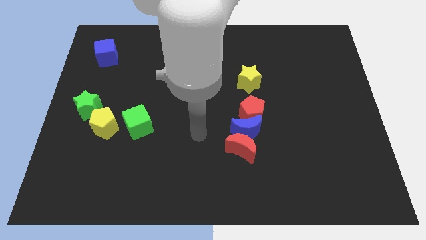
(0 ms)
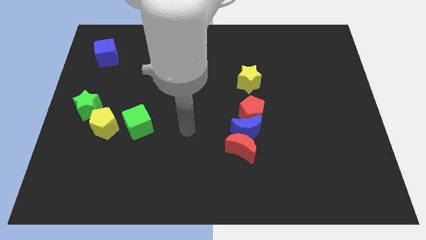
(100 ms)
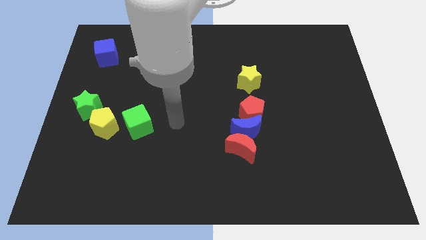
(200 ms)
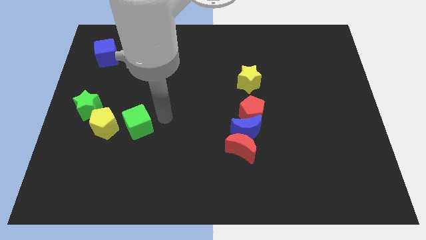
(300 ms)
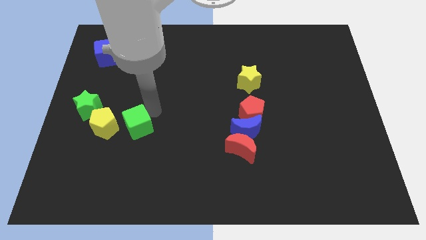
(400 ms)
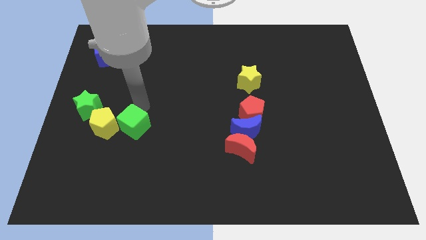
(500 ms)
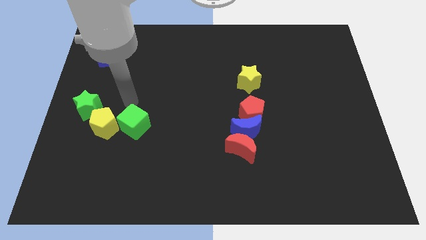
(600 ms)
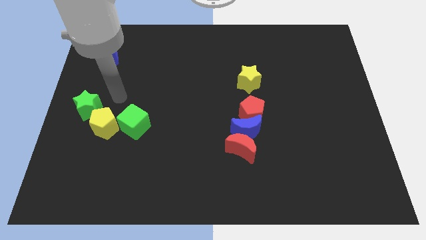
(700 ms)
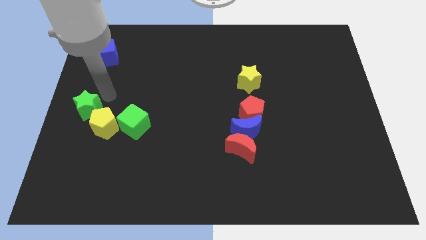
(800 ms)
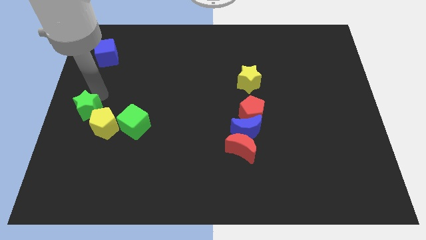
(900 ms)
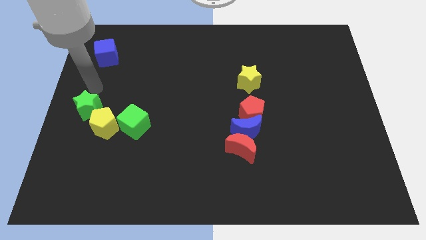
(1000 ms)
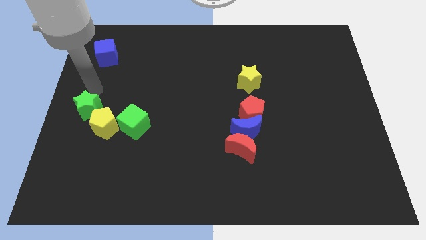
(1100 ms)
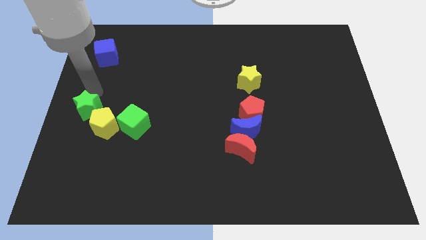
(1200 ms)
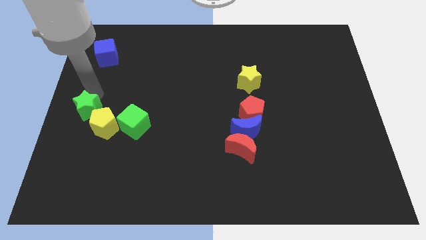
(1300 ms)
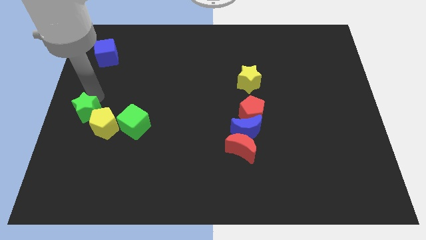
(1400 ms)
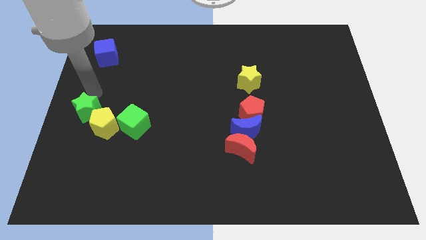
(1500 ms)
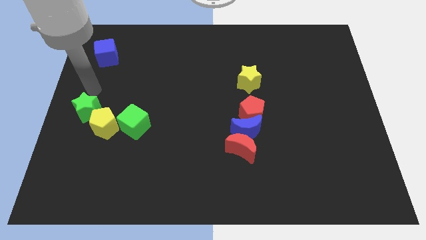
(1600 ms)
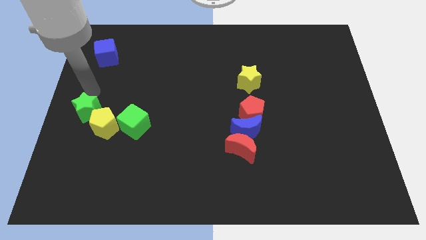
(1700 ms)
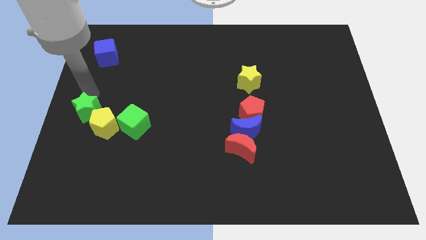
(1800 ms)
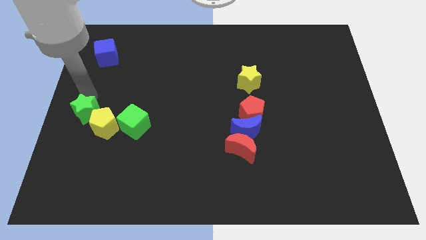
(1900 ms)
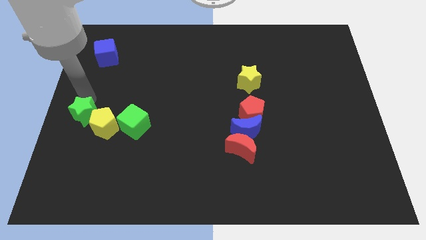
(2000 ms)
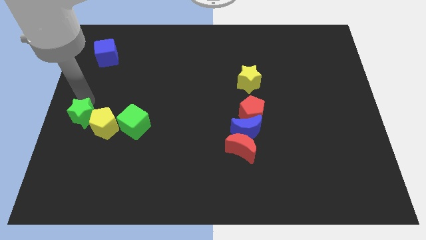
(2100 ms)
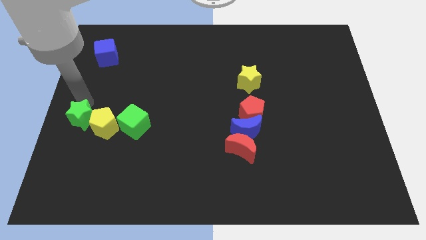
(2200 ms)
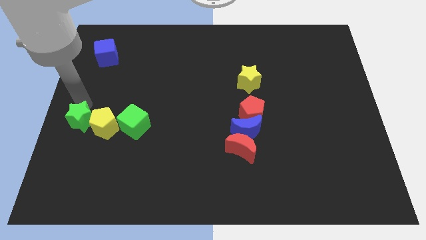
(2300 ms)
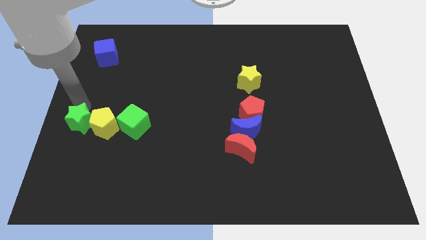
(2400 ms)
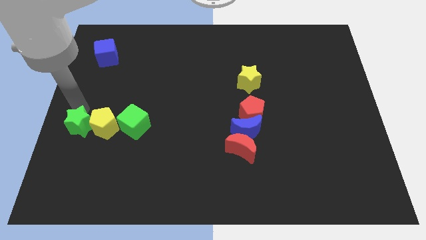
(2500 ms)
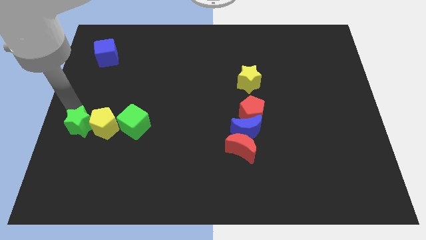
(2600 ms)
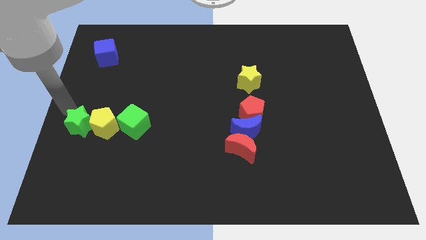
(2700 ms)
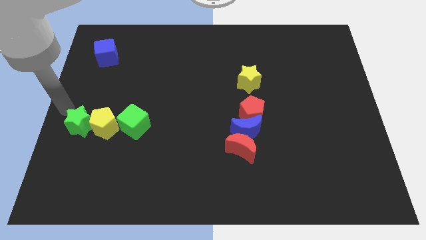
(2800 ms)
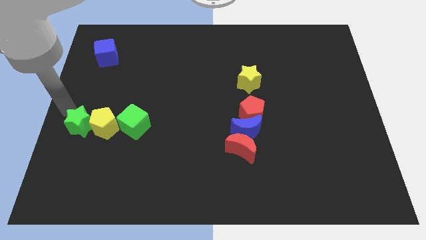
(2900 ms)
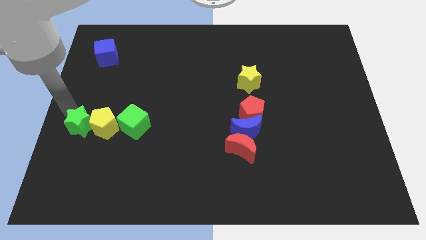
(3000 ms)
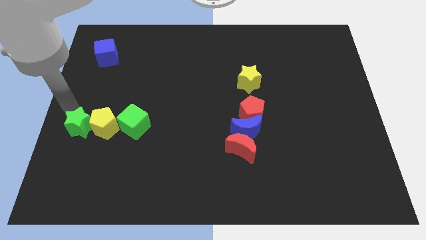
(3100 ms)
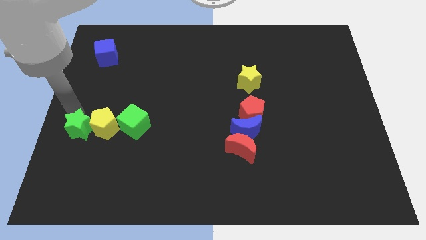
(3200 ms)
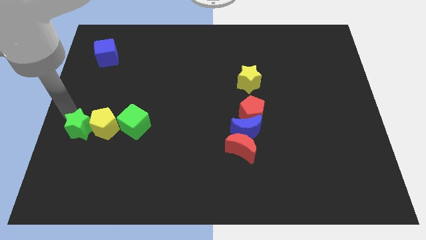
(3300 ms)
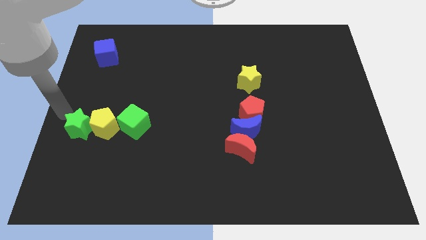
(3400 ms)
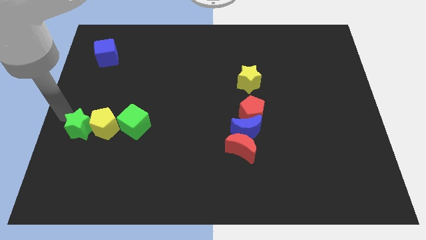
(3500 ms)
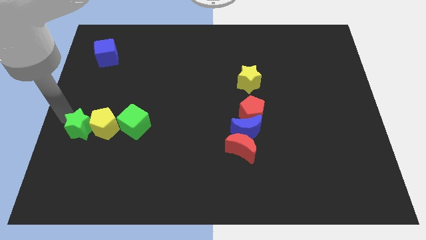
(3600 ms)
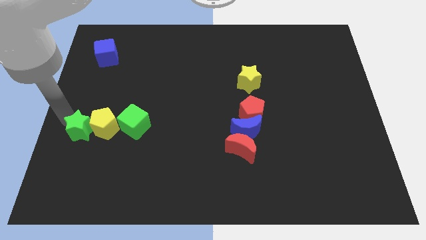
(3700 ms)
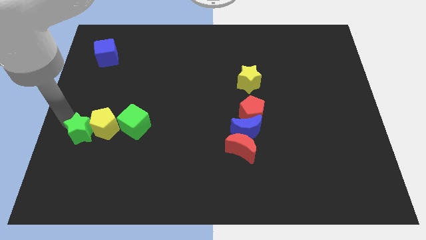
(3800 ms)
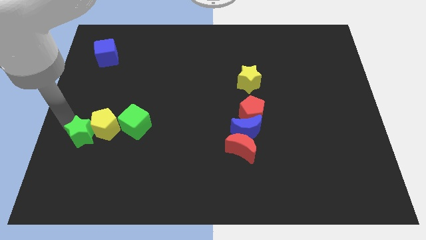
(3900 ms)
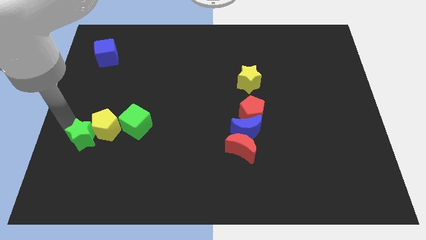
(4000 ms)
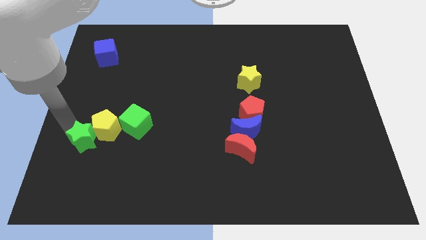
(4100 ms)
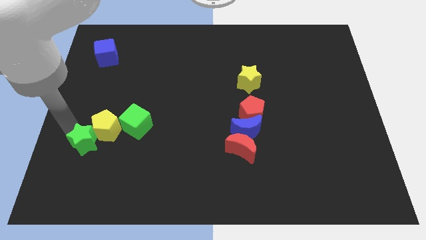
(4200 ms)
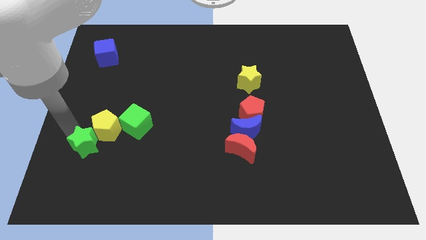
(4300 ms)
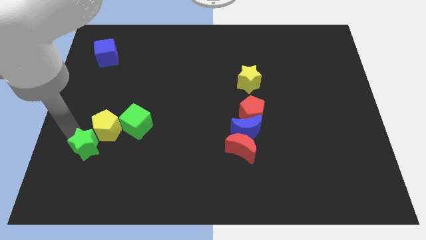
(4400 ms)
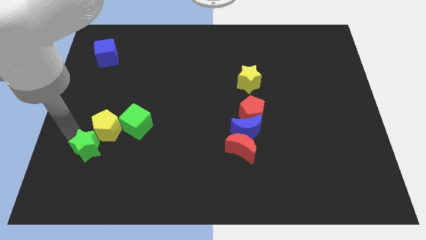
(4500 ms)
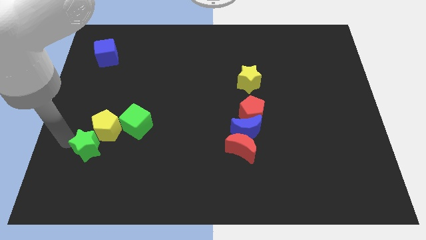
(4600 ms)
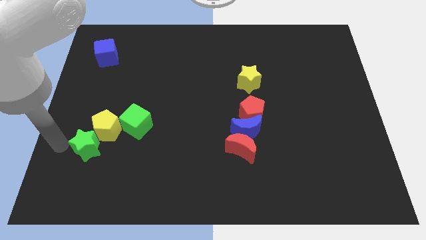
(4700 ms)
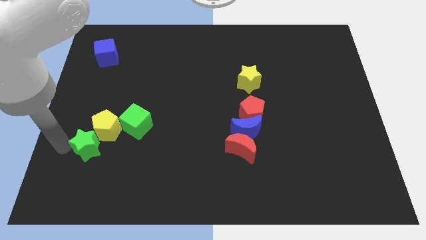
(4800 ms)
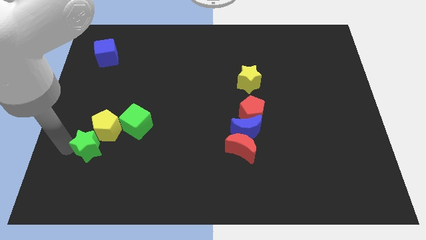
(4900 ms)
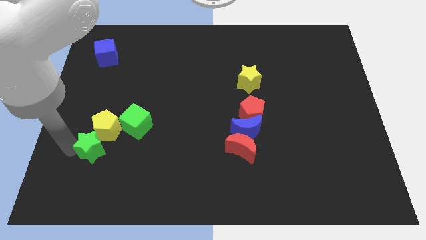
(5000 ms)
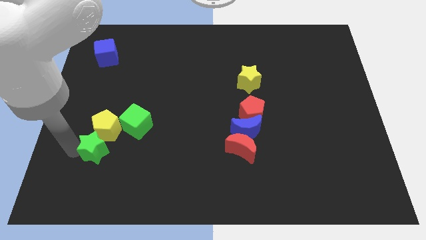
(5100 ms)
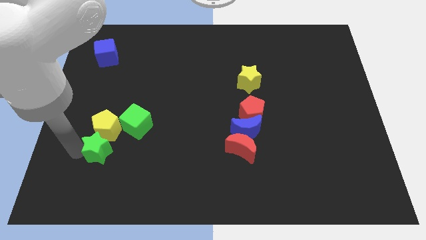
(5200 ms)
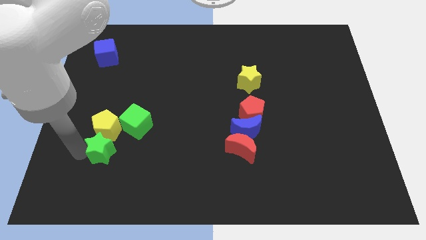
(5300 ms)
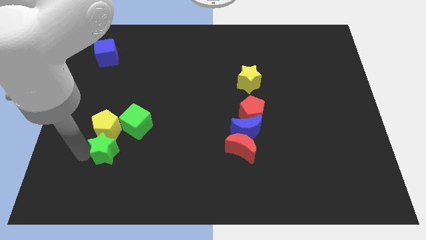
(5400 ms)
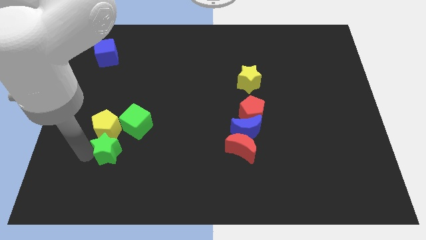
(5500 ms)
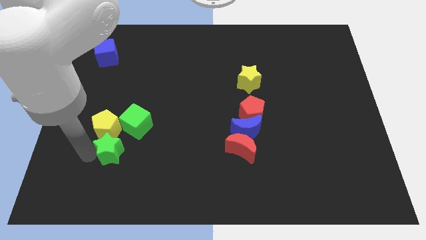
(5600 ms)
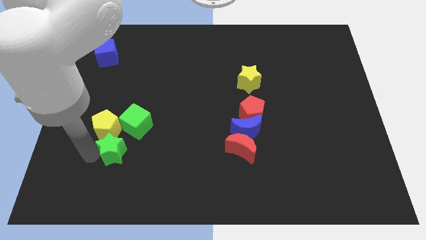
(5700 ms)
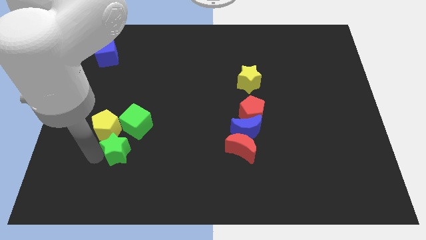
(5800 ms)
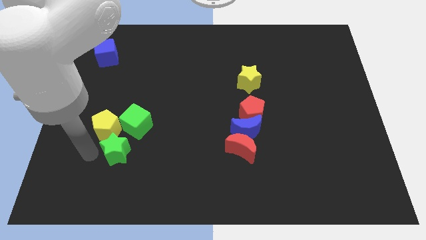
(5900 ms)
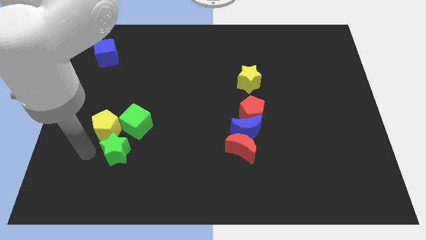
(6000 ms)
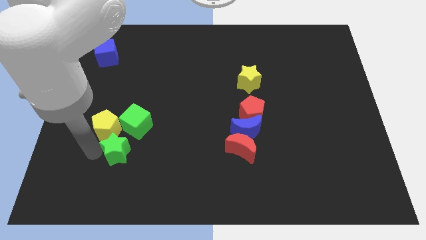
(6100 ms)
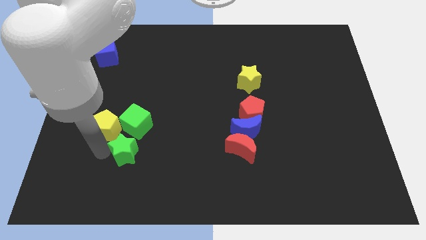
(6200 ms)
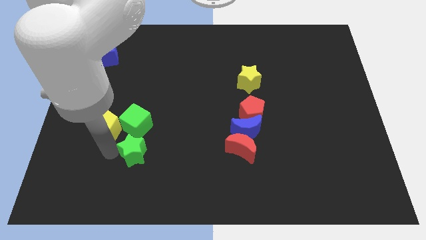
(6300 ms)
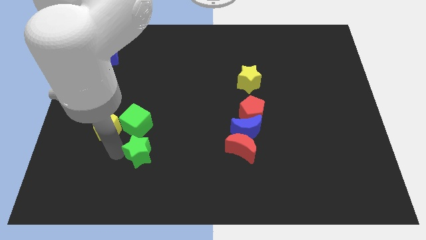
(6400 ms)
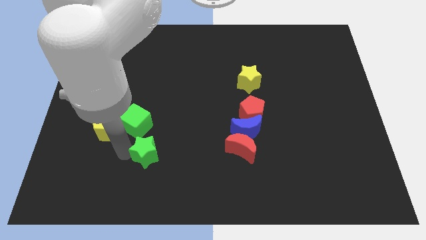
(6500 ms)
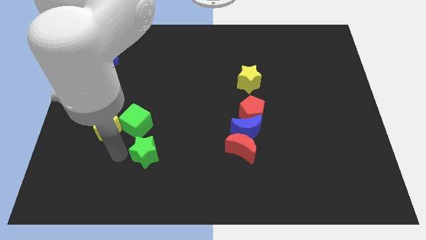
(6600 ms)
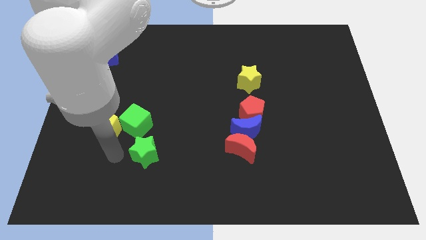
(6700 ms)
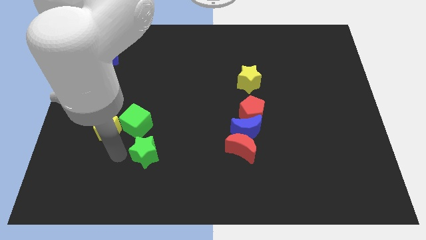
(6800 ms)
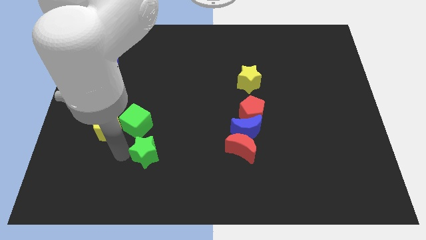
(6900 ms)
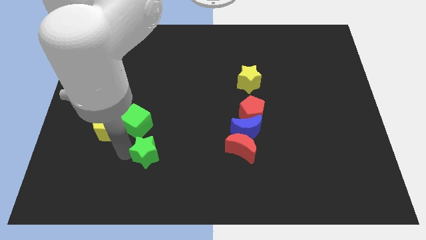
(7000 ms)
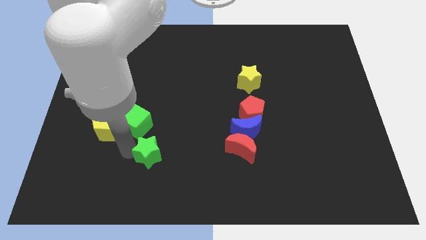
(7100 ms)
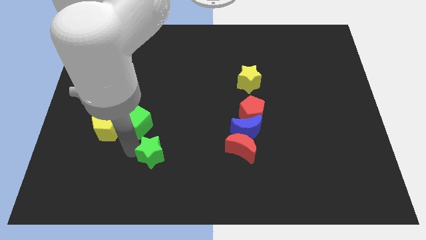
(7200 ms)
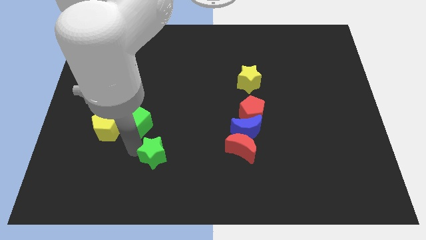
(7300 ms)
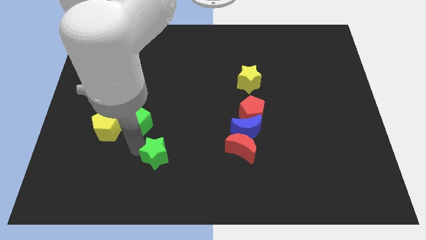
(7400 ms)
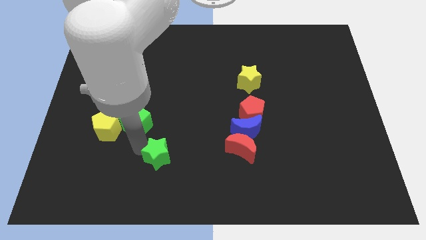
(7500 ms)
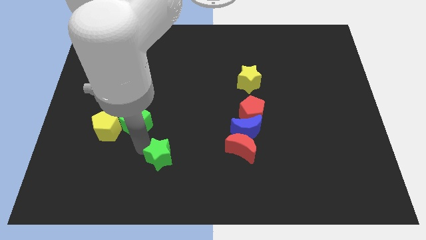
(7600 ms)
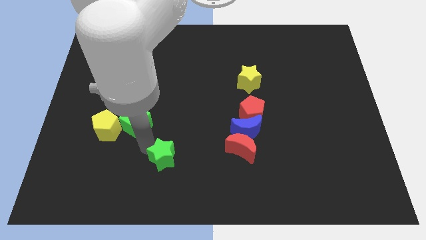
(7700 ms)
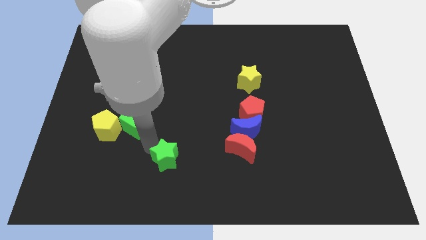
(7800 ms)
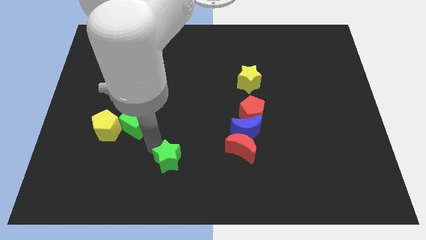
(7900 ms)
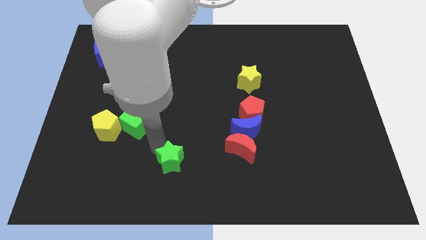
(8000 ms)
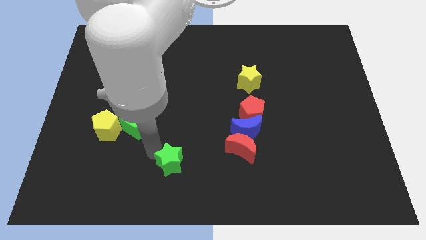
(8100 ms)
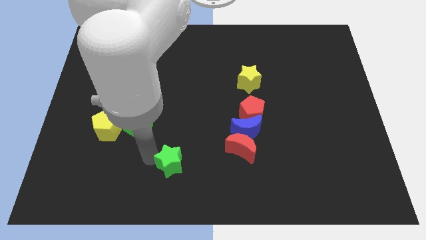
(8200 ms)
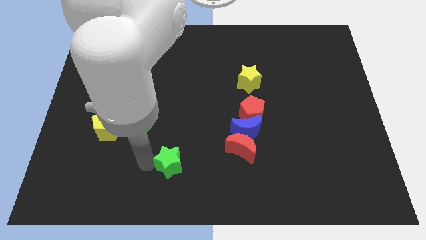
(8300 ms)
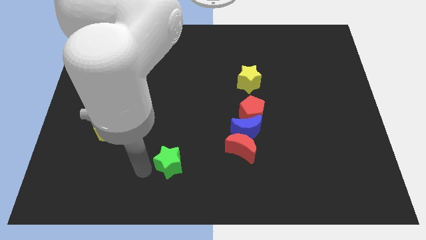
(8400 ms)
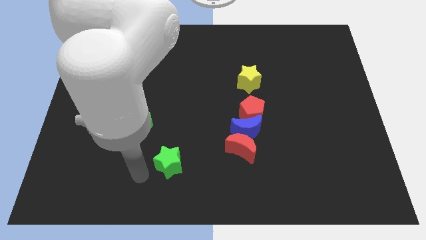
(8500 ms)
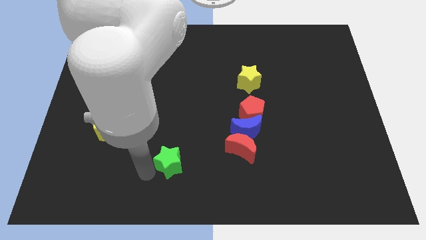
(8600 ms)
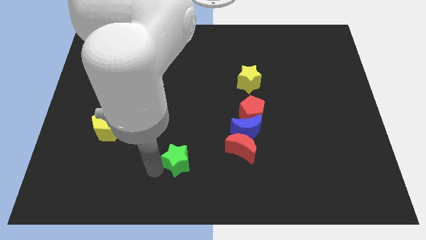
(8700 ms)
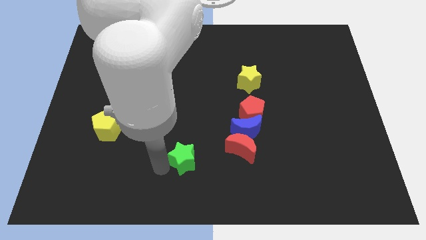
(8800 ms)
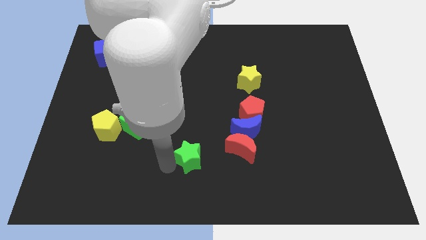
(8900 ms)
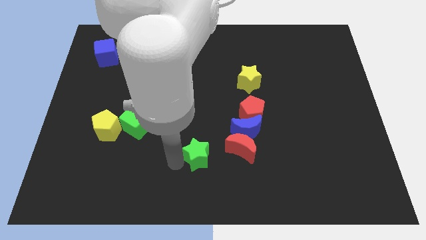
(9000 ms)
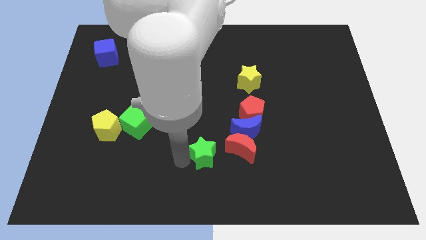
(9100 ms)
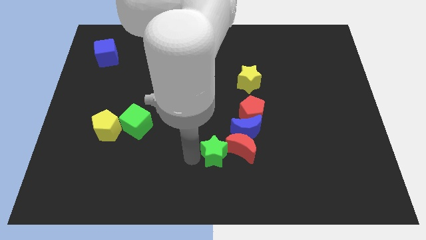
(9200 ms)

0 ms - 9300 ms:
push the green star close to the red moon
